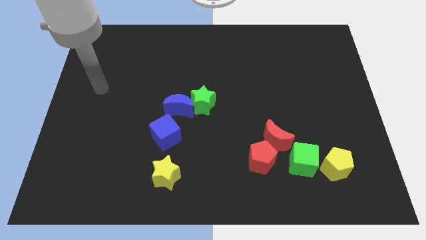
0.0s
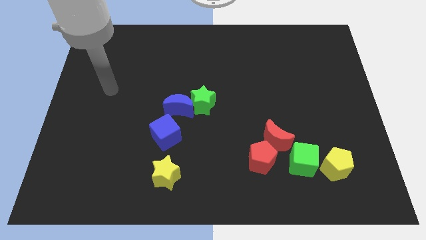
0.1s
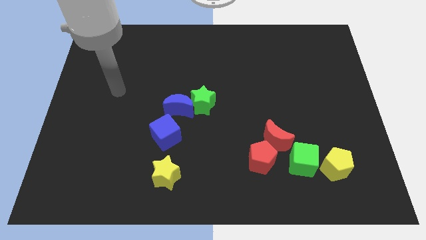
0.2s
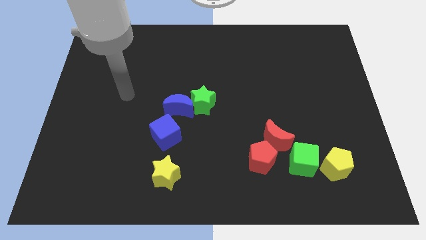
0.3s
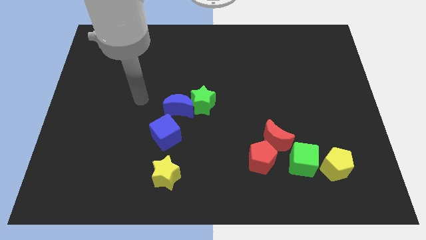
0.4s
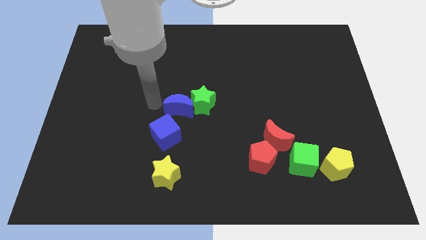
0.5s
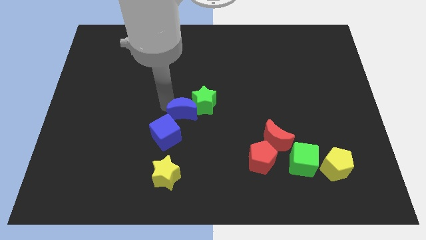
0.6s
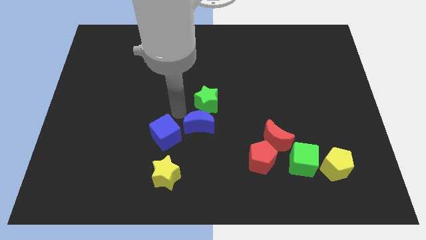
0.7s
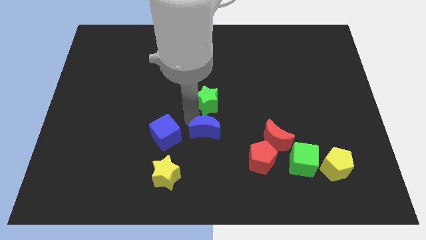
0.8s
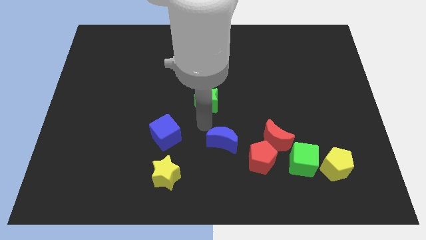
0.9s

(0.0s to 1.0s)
move the green star away from the blue moon

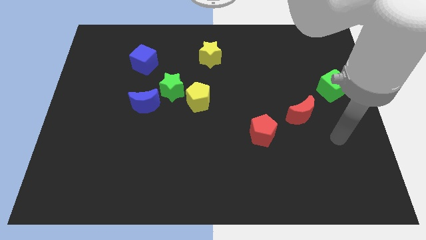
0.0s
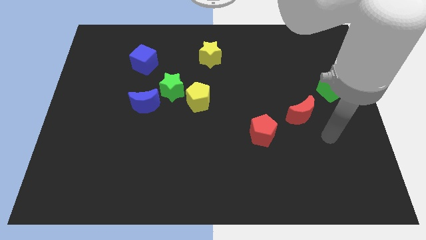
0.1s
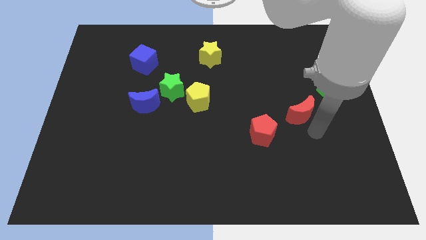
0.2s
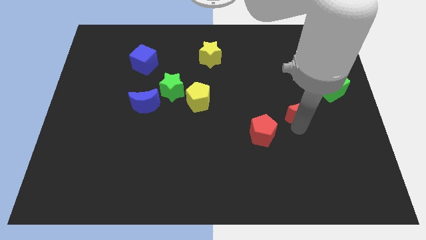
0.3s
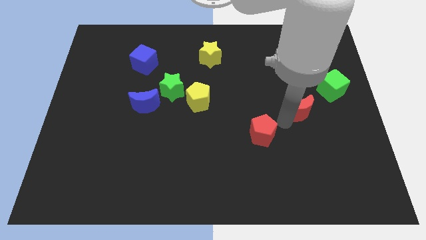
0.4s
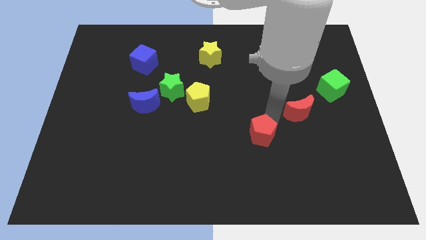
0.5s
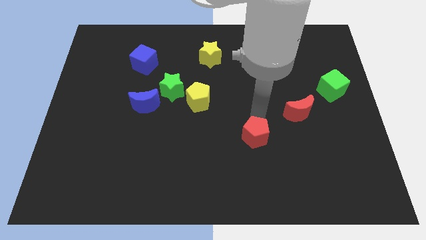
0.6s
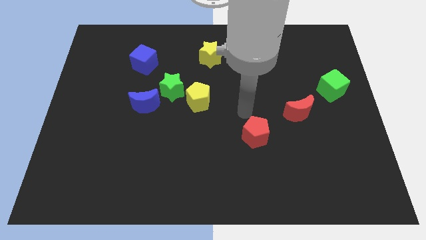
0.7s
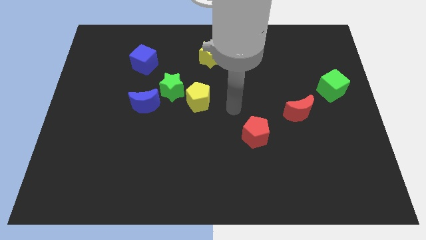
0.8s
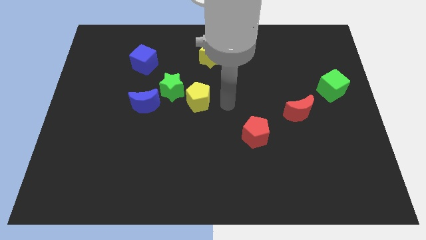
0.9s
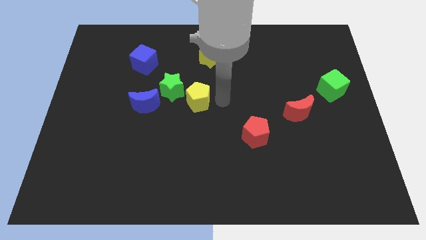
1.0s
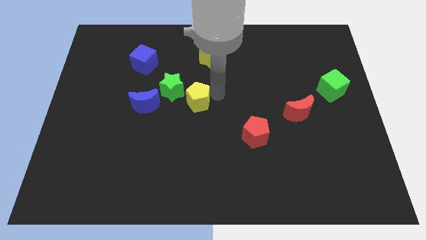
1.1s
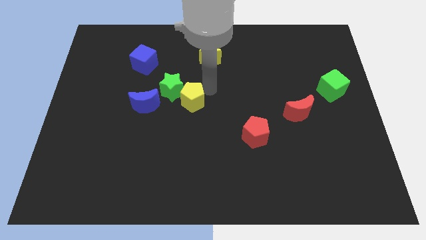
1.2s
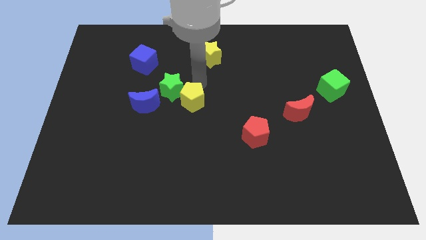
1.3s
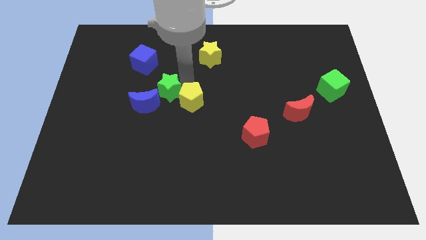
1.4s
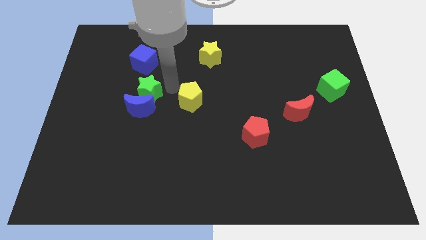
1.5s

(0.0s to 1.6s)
pull the yellow pentagon apart from the green star

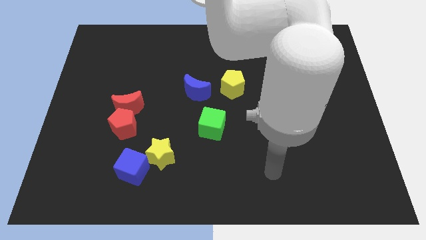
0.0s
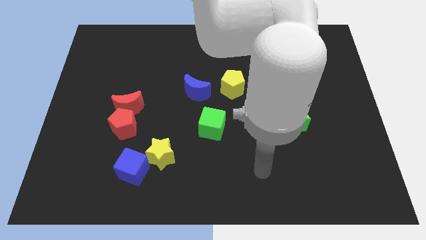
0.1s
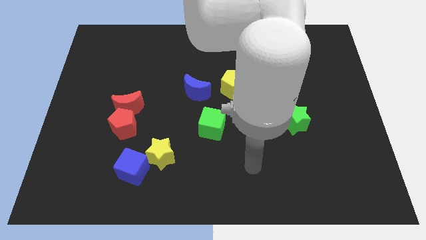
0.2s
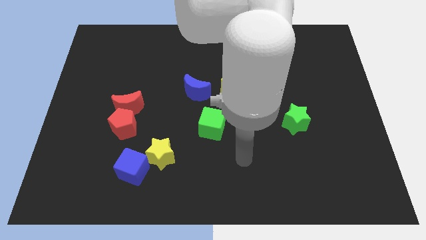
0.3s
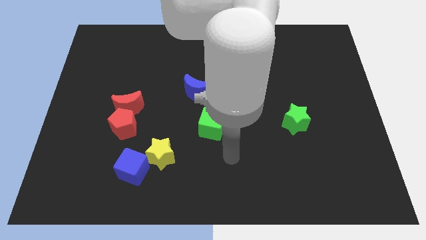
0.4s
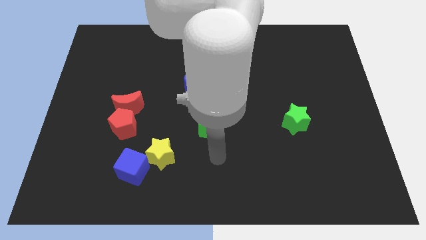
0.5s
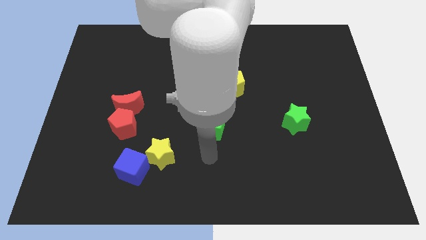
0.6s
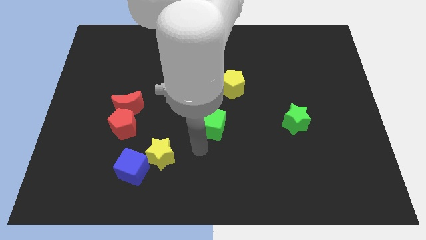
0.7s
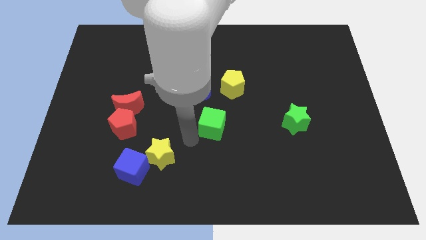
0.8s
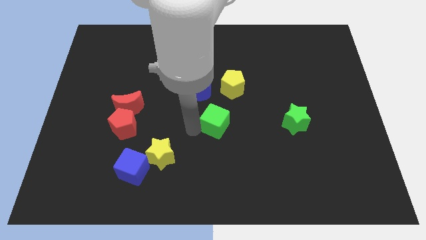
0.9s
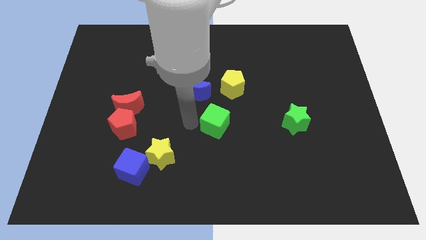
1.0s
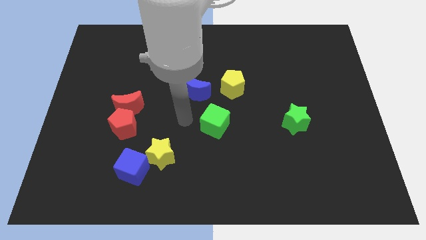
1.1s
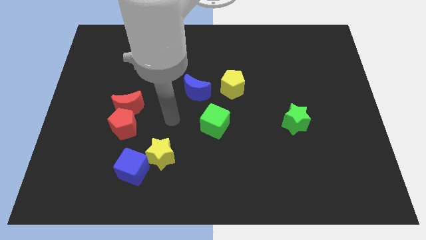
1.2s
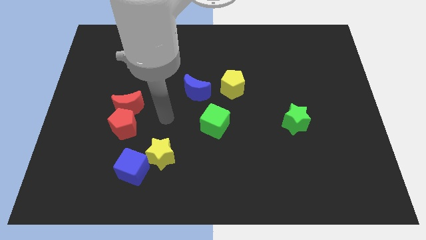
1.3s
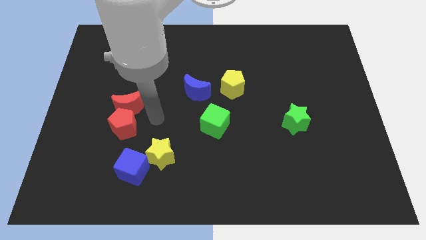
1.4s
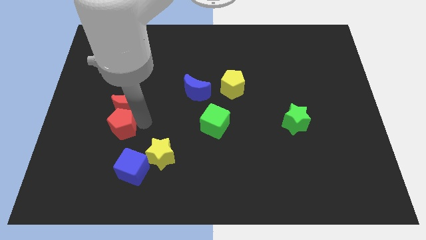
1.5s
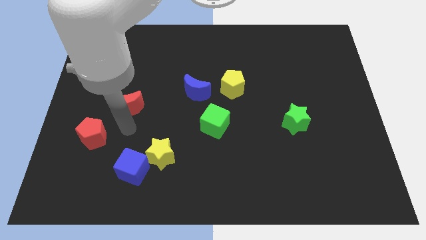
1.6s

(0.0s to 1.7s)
move the red moon away from the red pentagon

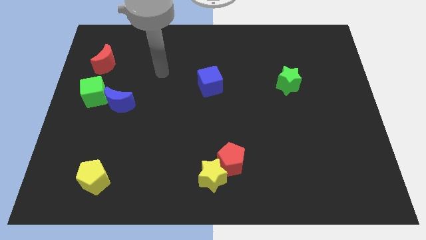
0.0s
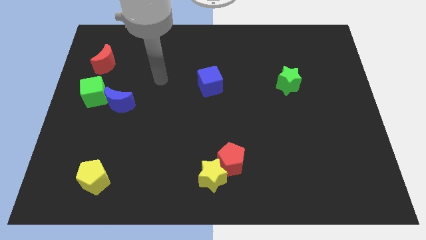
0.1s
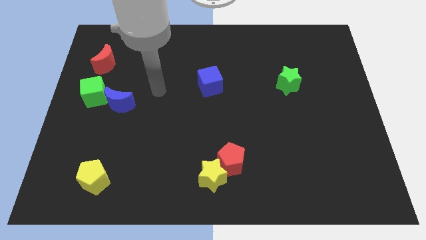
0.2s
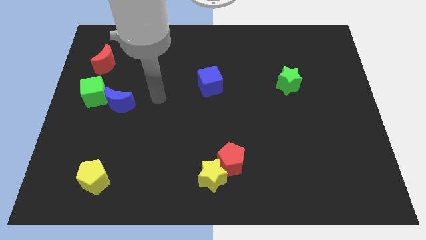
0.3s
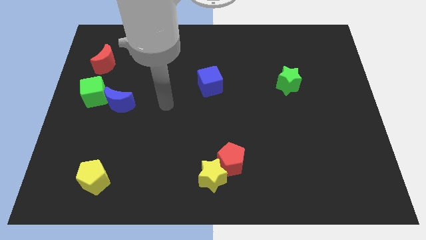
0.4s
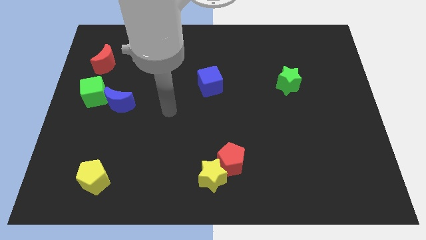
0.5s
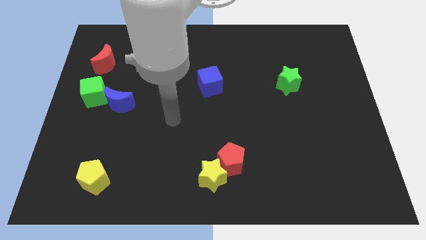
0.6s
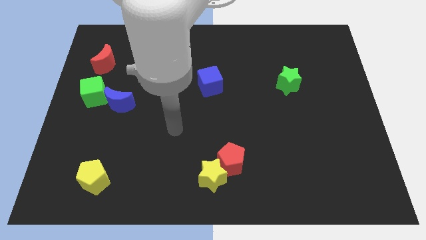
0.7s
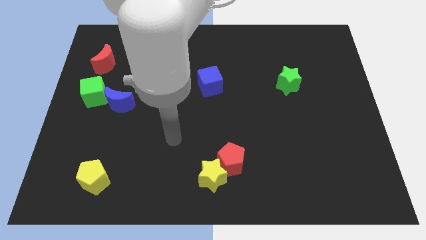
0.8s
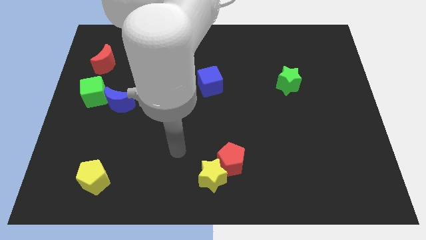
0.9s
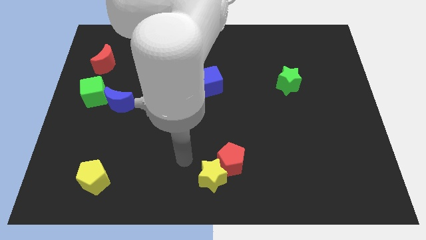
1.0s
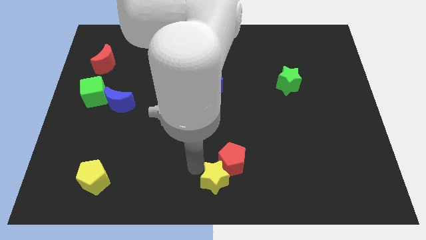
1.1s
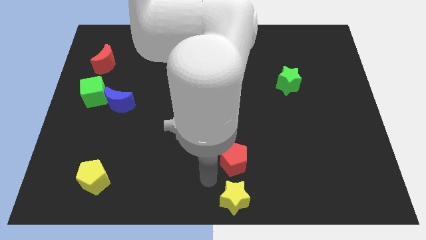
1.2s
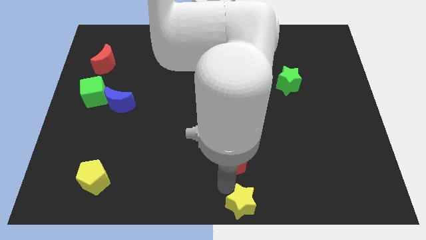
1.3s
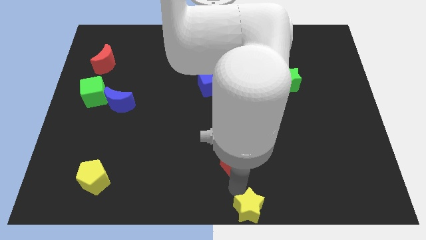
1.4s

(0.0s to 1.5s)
move the red pentagon away from the yellow star

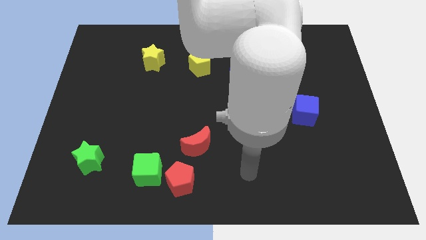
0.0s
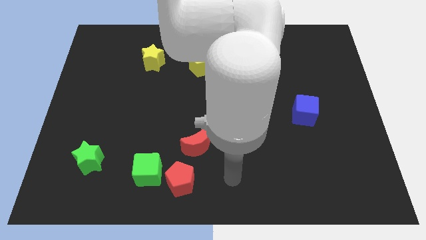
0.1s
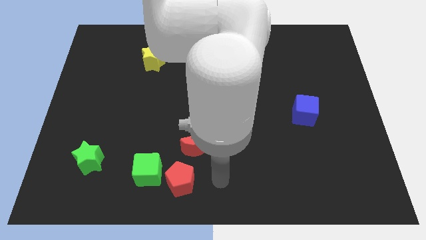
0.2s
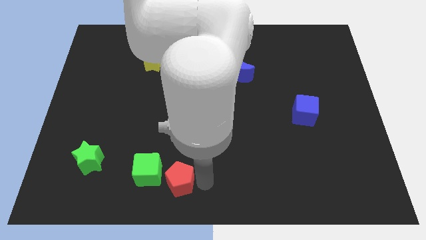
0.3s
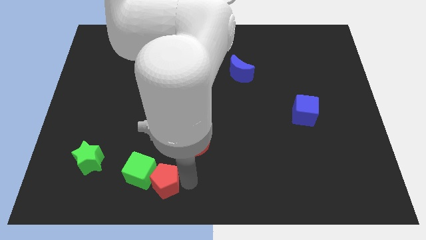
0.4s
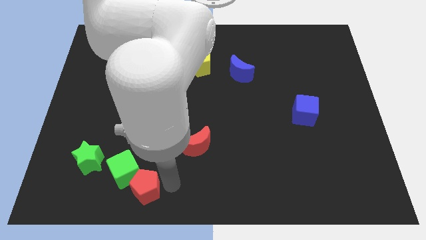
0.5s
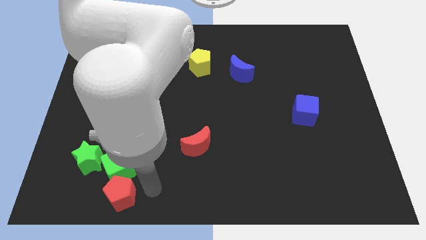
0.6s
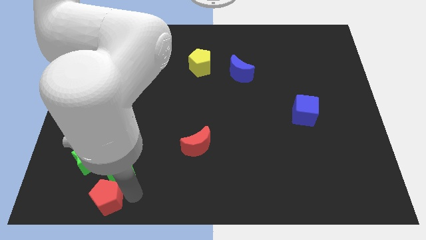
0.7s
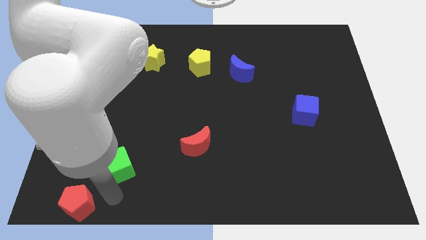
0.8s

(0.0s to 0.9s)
pull the green cube apart from the red pentagon

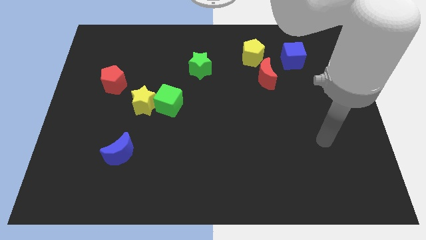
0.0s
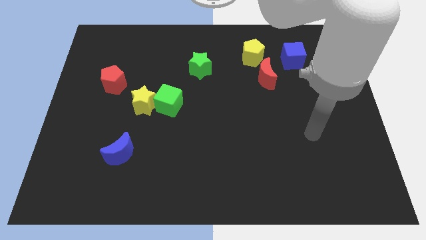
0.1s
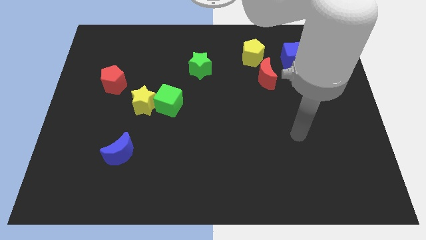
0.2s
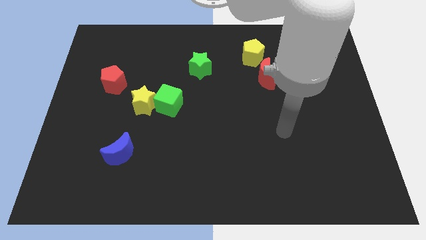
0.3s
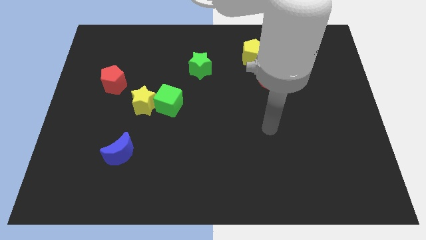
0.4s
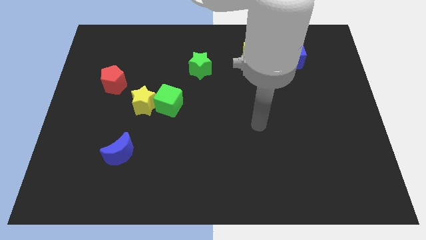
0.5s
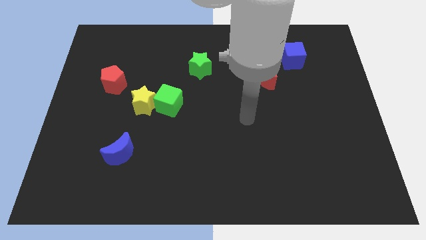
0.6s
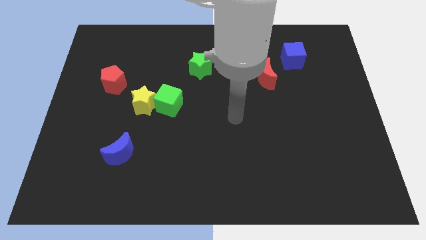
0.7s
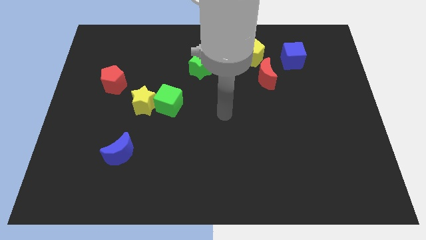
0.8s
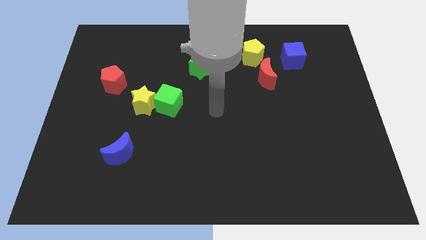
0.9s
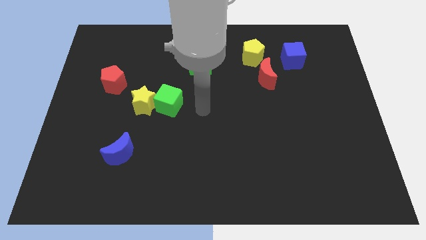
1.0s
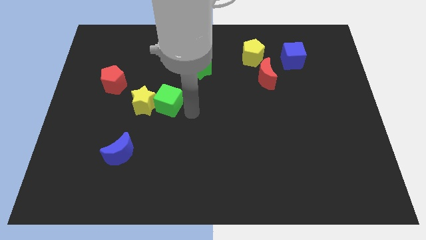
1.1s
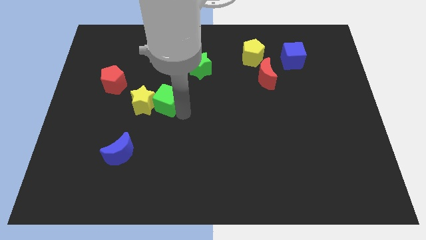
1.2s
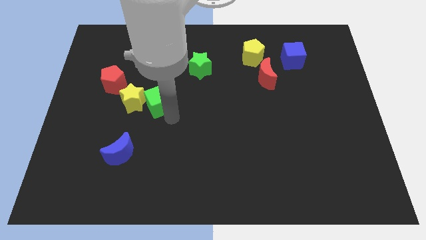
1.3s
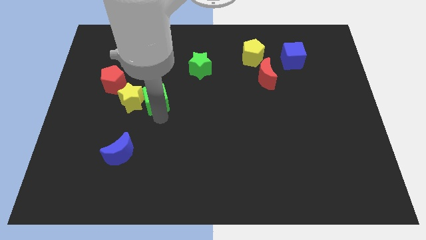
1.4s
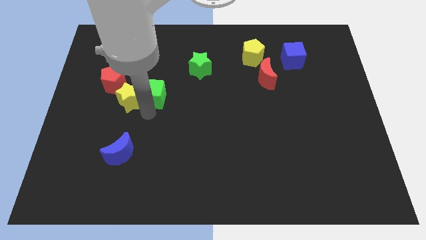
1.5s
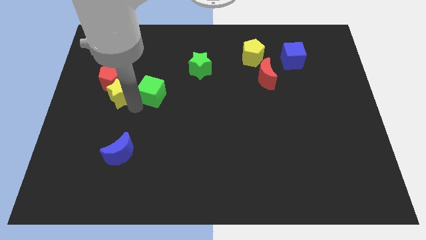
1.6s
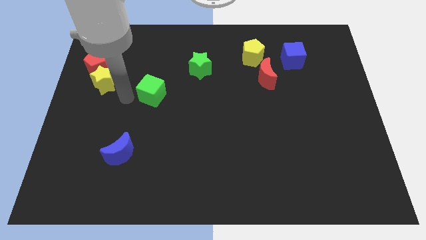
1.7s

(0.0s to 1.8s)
separate the green cube from the yellow star

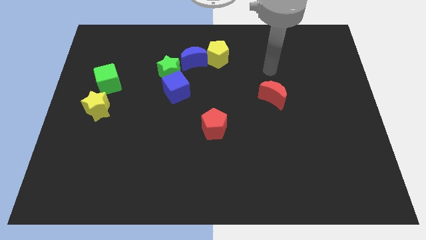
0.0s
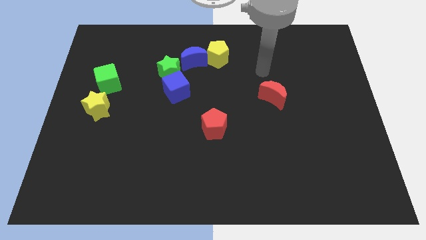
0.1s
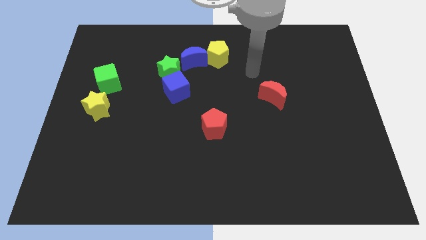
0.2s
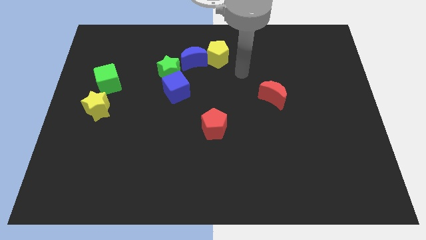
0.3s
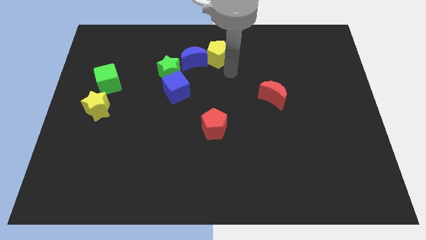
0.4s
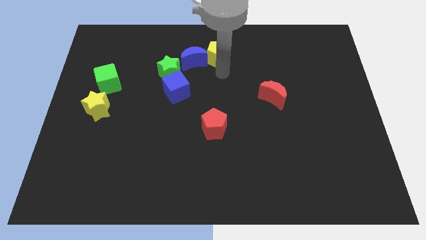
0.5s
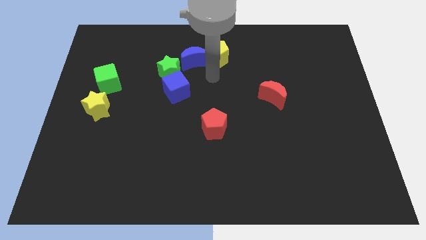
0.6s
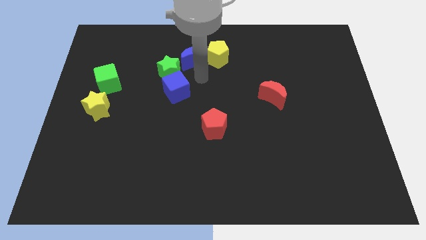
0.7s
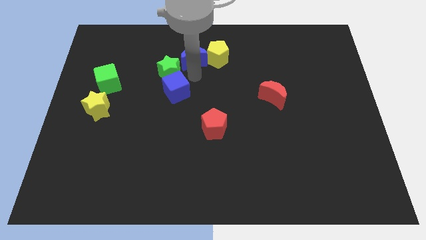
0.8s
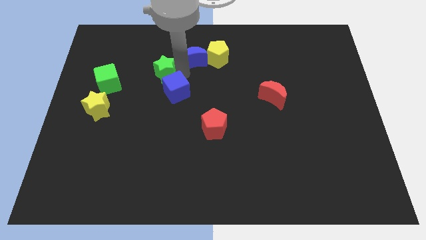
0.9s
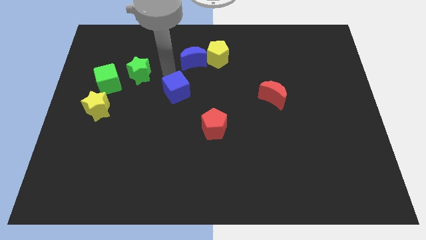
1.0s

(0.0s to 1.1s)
move the blue cube away from the green star
